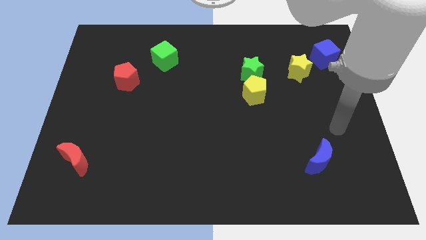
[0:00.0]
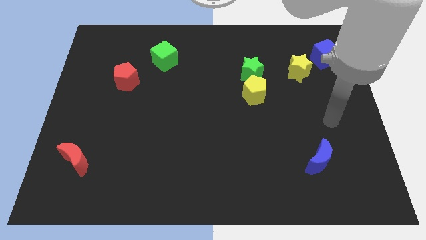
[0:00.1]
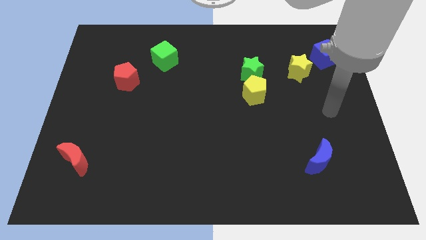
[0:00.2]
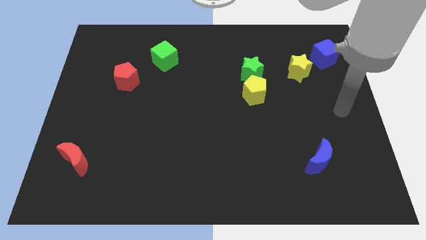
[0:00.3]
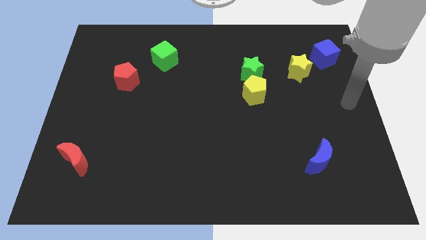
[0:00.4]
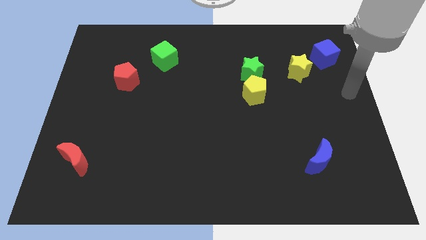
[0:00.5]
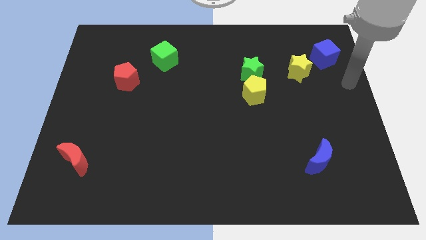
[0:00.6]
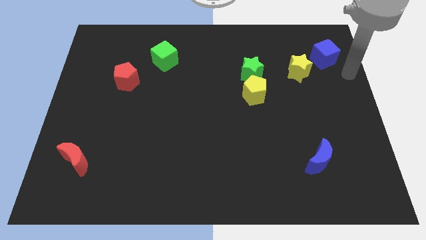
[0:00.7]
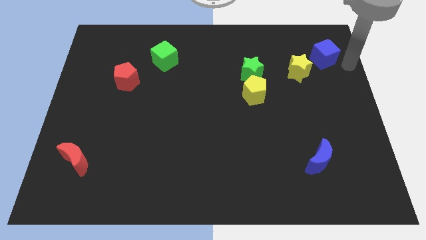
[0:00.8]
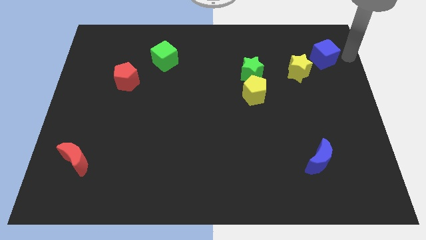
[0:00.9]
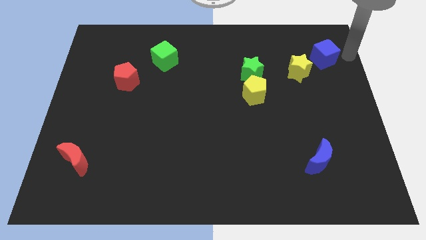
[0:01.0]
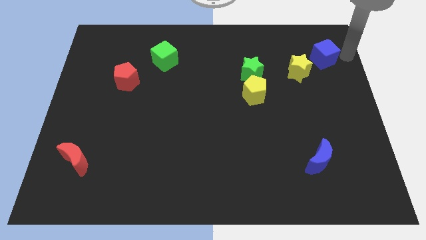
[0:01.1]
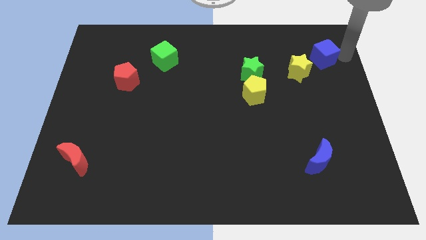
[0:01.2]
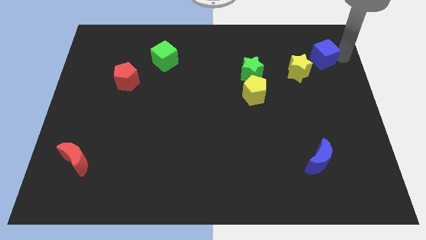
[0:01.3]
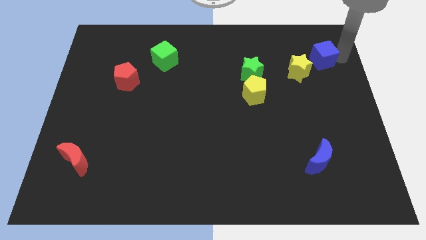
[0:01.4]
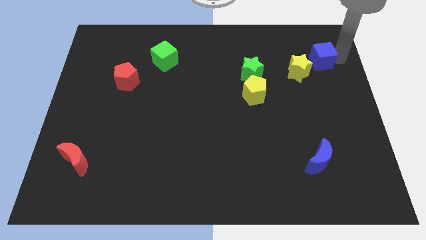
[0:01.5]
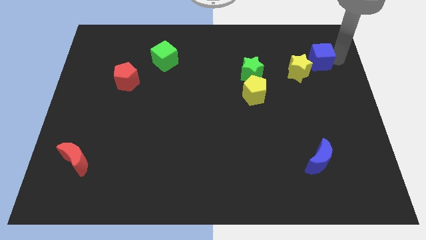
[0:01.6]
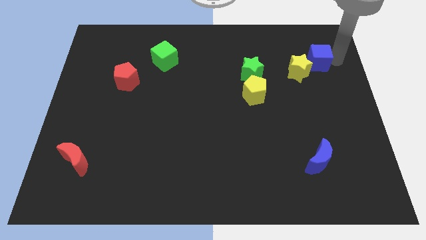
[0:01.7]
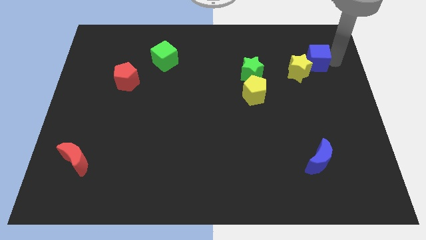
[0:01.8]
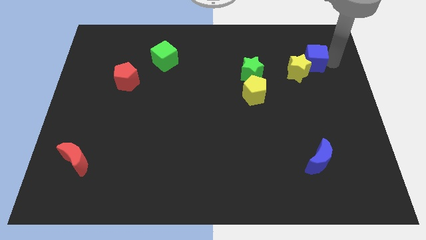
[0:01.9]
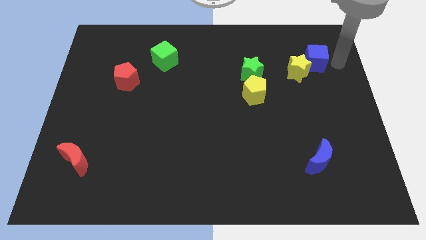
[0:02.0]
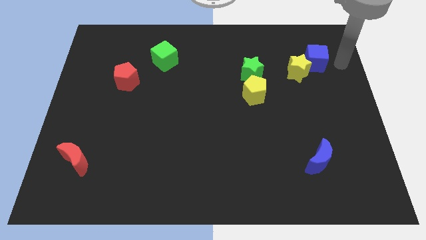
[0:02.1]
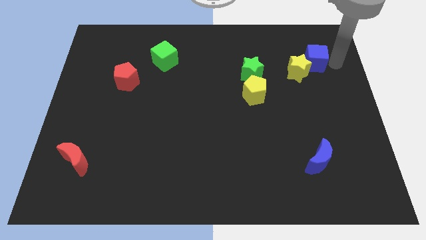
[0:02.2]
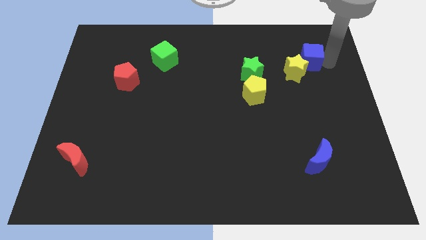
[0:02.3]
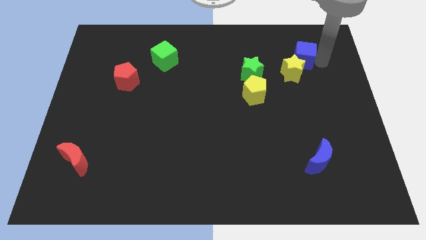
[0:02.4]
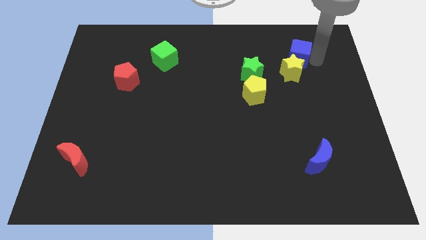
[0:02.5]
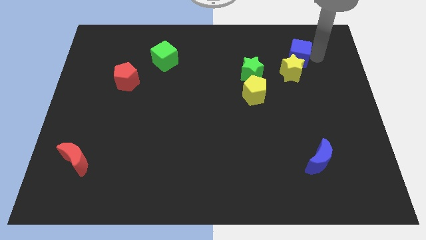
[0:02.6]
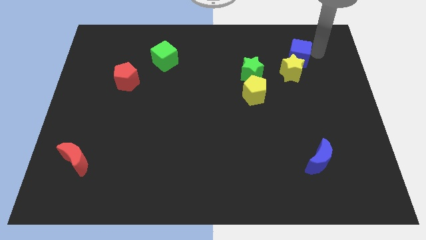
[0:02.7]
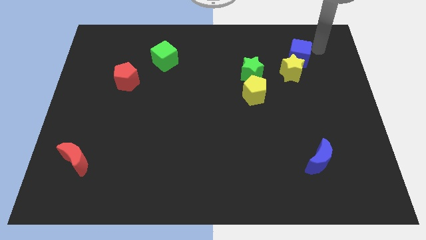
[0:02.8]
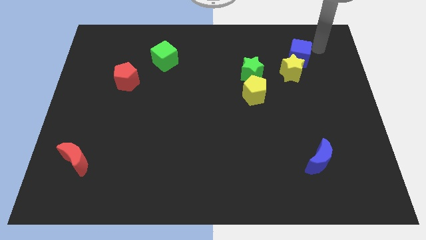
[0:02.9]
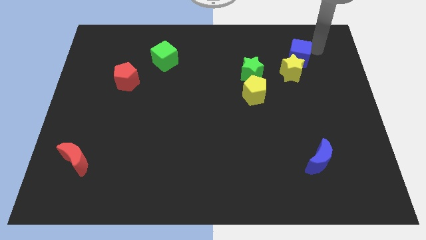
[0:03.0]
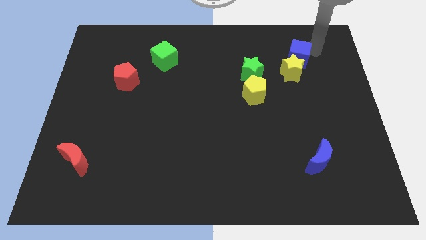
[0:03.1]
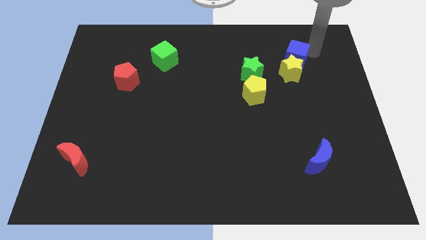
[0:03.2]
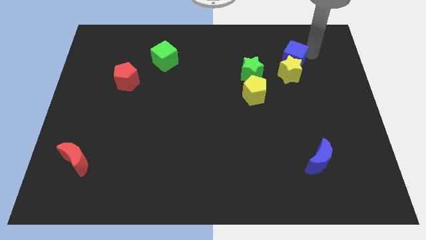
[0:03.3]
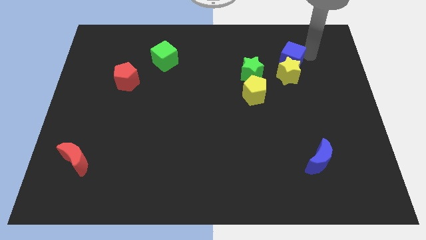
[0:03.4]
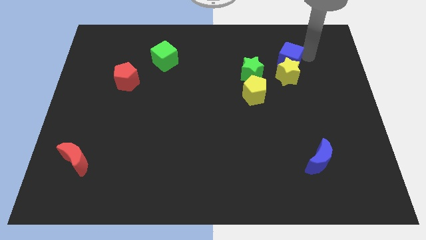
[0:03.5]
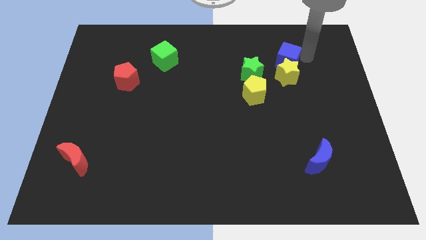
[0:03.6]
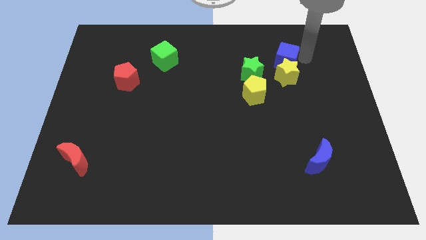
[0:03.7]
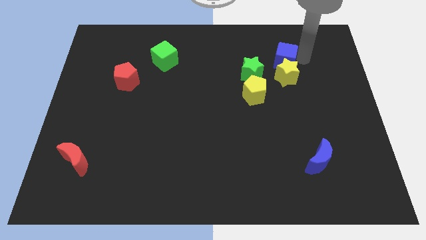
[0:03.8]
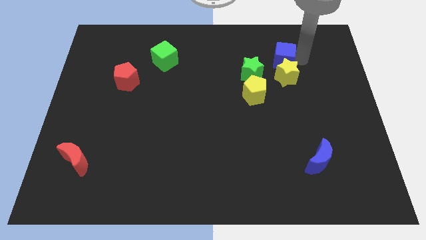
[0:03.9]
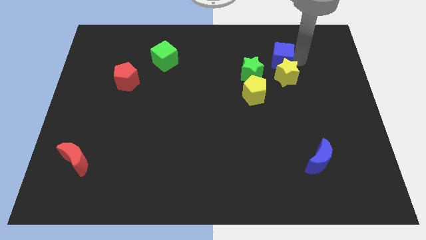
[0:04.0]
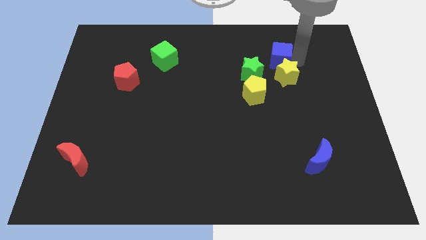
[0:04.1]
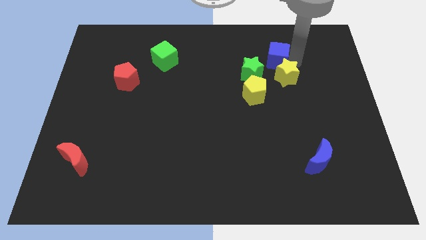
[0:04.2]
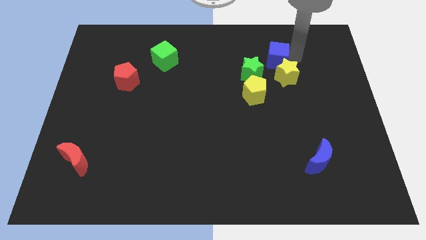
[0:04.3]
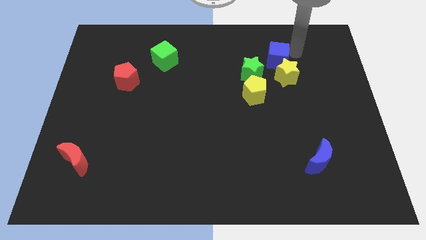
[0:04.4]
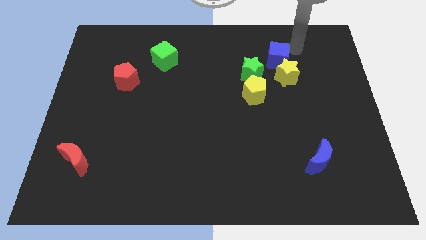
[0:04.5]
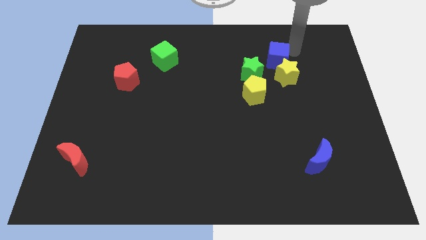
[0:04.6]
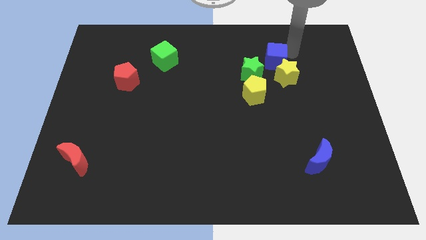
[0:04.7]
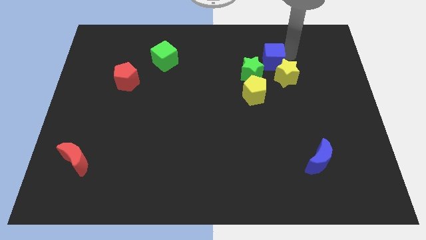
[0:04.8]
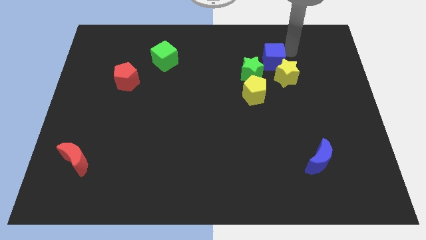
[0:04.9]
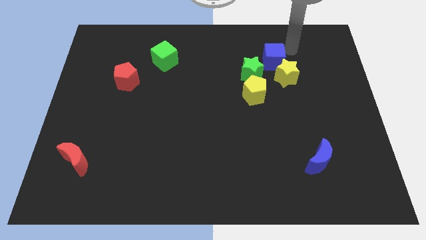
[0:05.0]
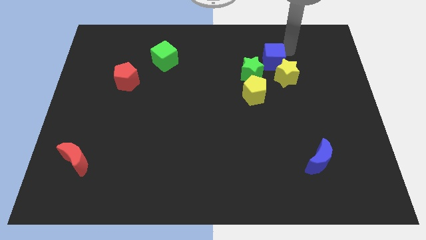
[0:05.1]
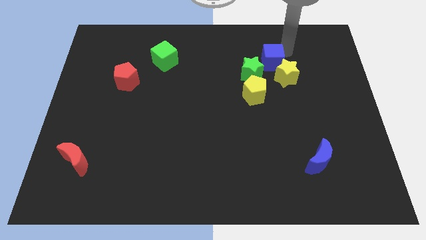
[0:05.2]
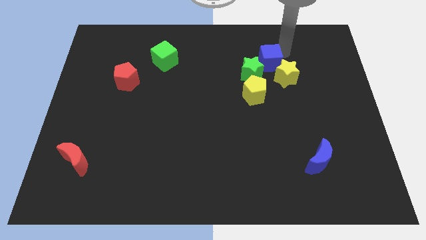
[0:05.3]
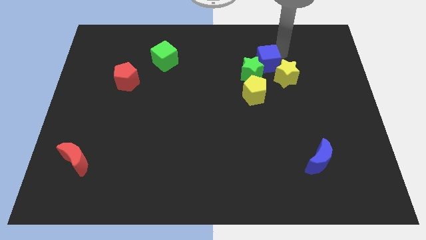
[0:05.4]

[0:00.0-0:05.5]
slide the blue cube towards the green star

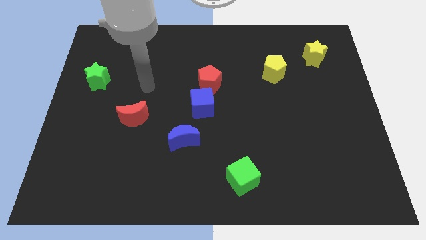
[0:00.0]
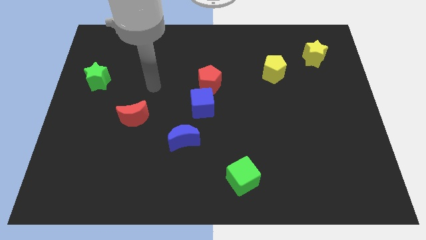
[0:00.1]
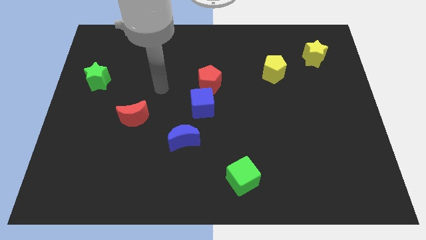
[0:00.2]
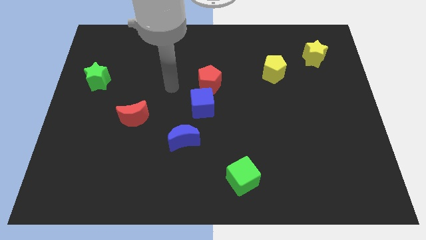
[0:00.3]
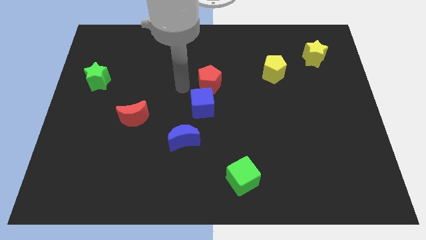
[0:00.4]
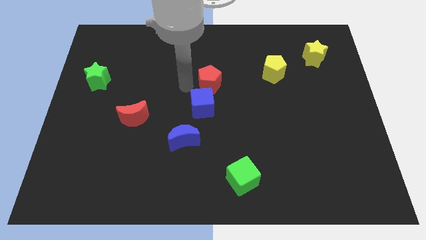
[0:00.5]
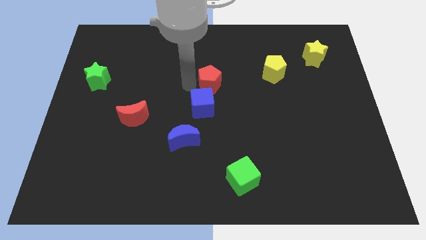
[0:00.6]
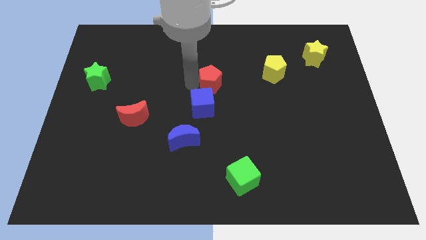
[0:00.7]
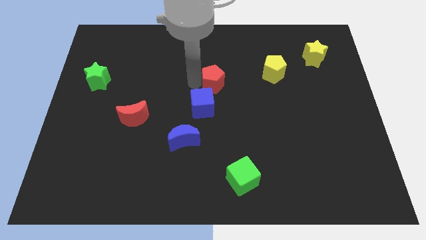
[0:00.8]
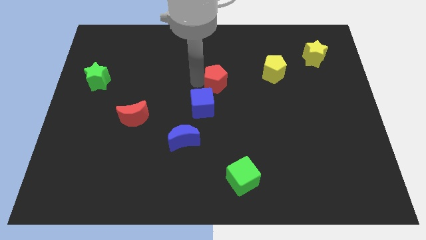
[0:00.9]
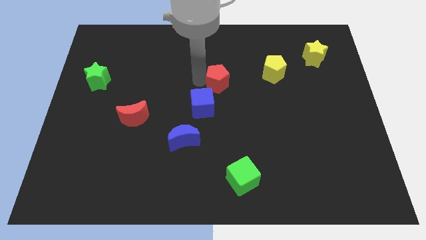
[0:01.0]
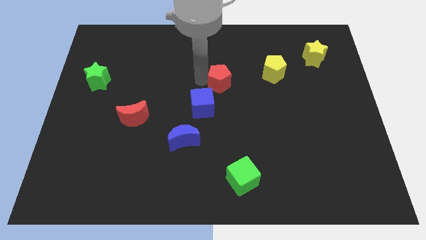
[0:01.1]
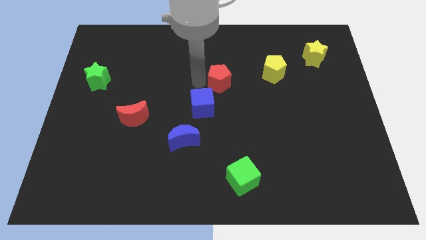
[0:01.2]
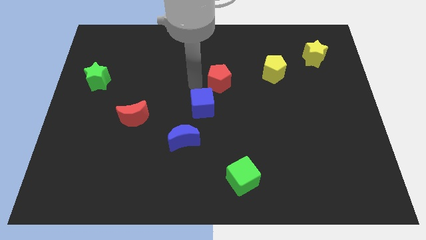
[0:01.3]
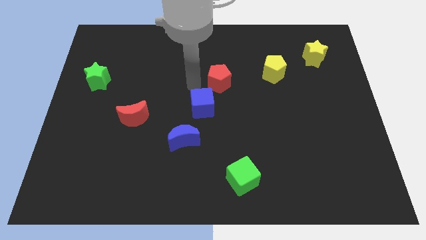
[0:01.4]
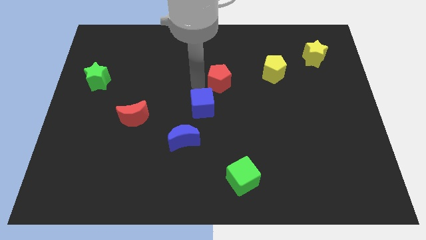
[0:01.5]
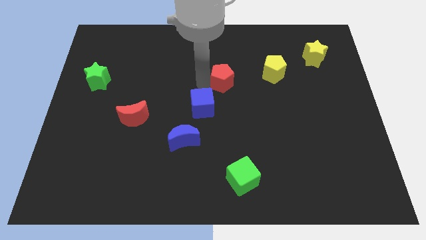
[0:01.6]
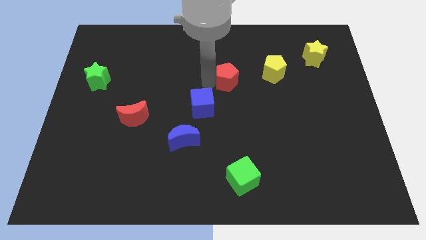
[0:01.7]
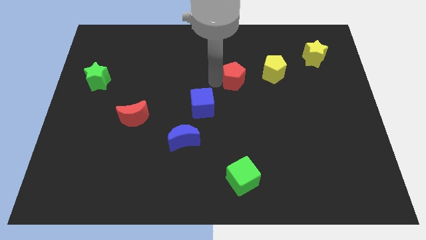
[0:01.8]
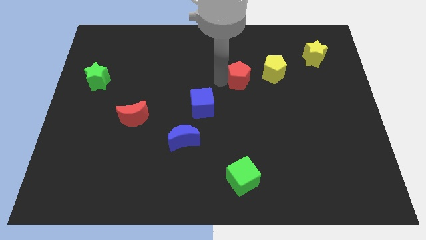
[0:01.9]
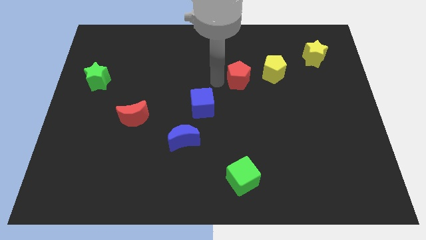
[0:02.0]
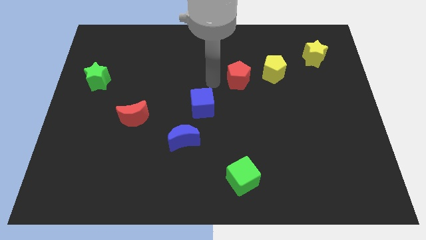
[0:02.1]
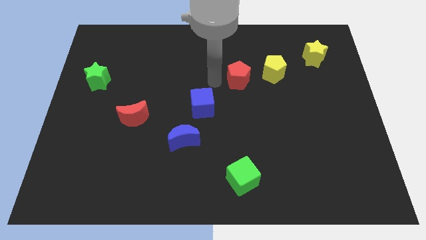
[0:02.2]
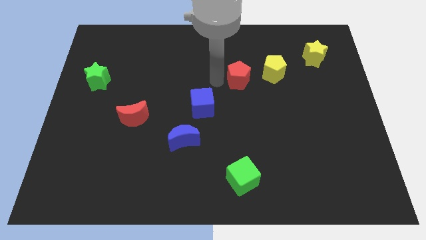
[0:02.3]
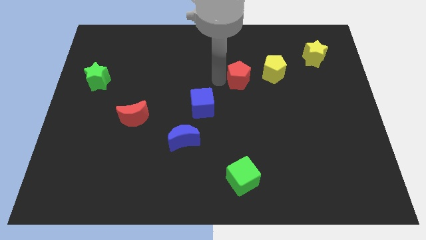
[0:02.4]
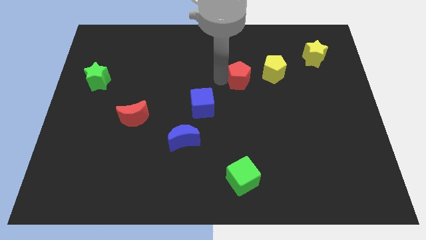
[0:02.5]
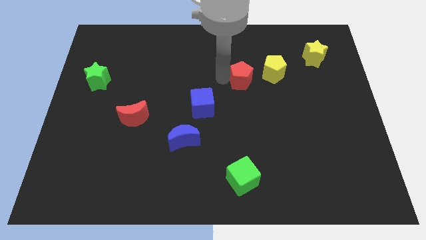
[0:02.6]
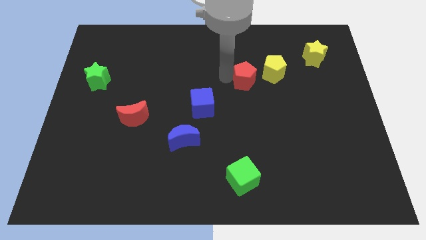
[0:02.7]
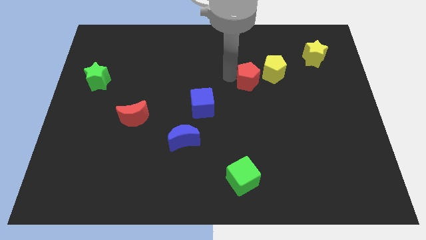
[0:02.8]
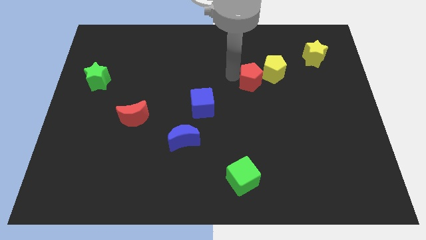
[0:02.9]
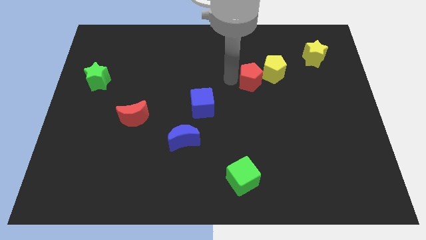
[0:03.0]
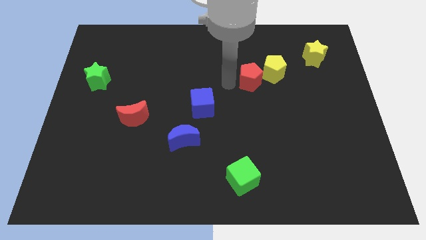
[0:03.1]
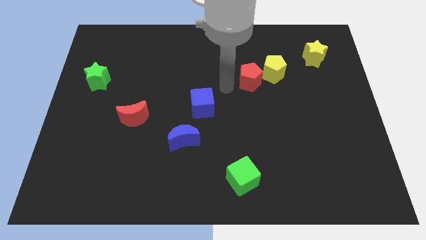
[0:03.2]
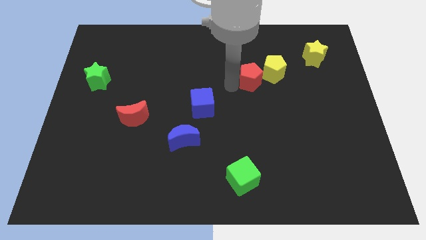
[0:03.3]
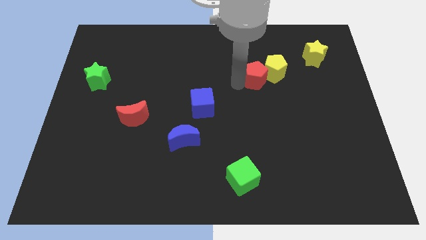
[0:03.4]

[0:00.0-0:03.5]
push the red pentagon to the yellow pentagon
